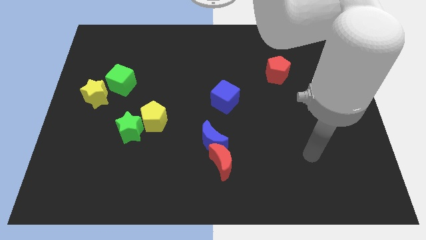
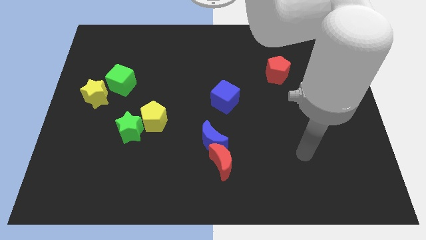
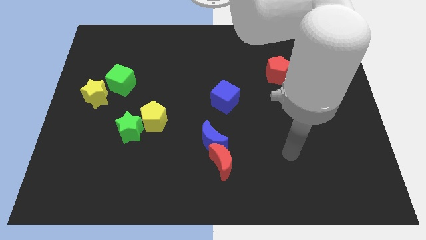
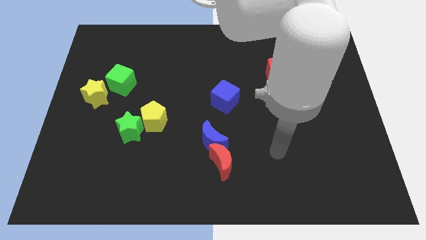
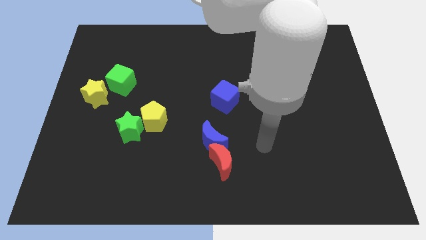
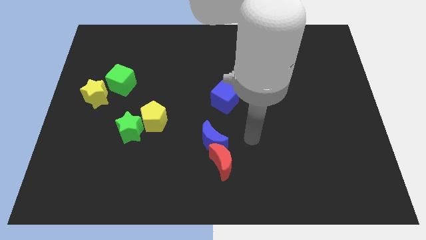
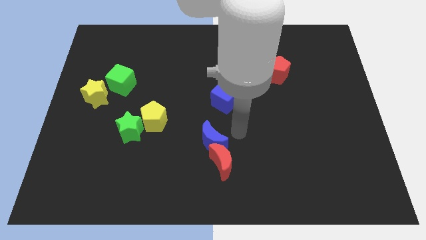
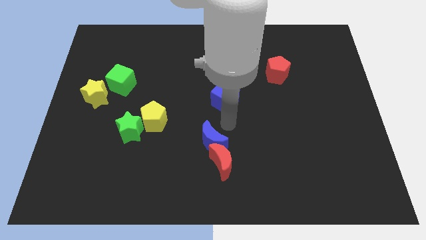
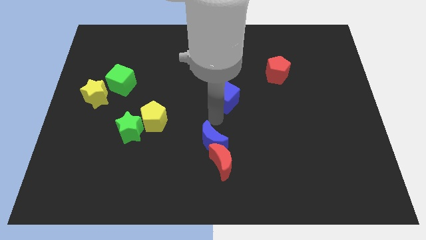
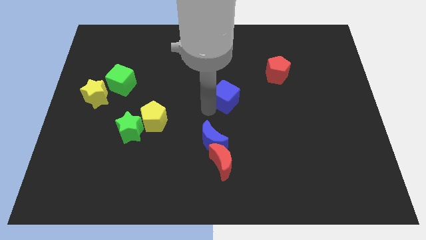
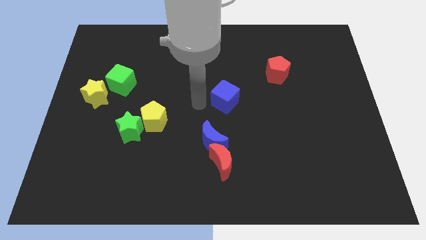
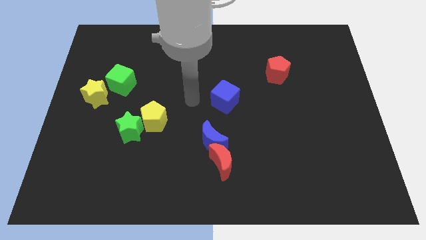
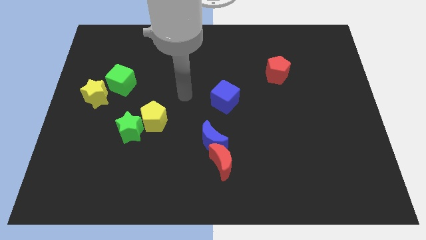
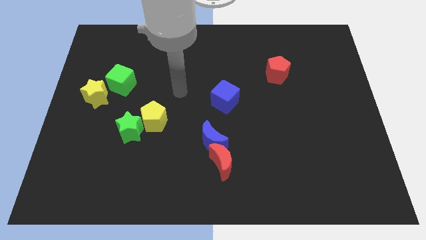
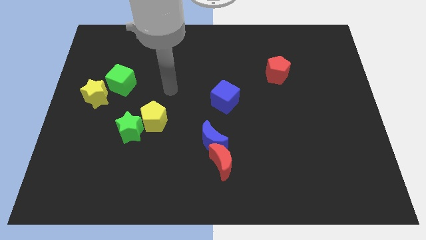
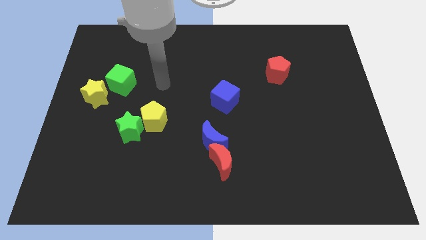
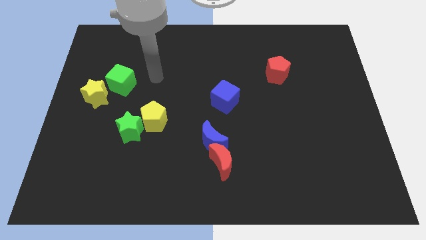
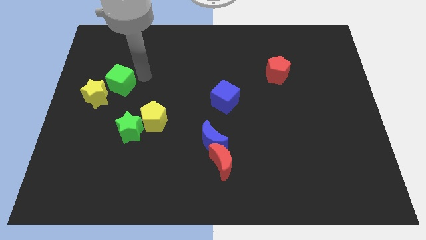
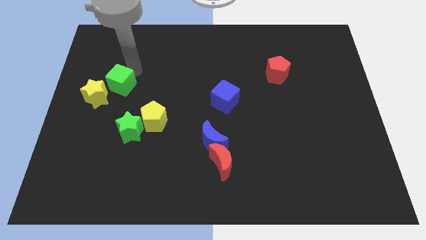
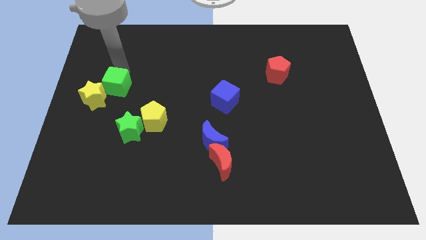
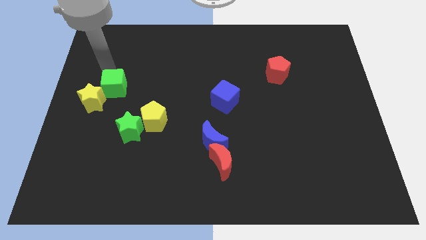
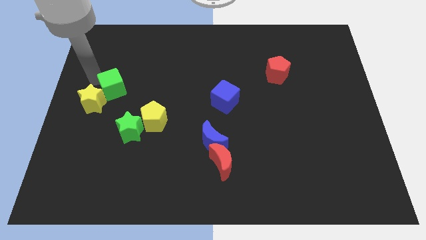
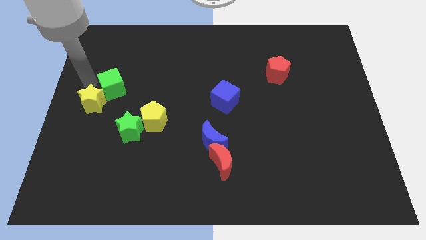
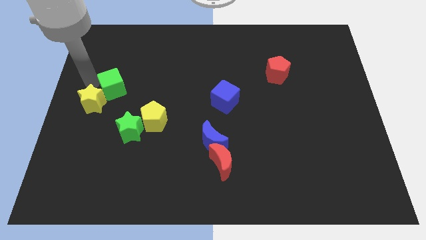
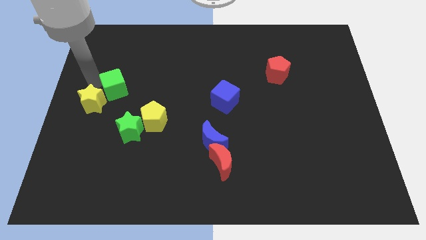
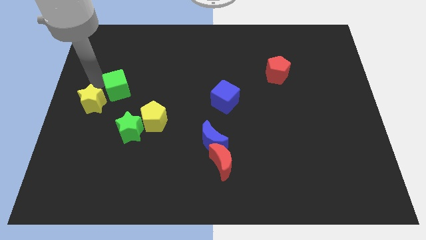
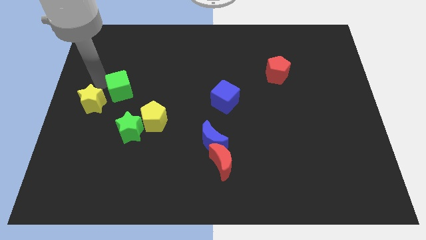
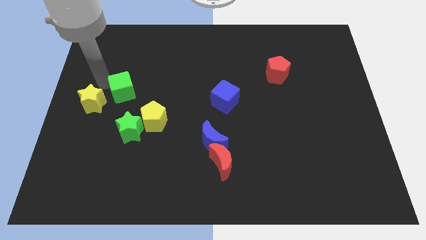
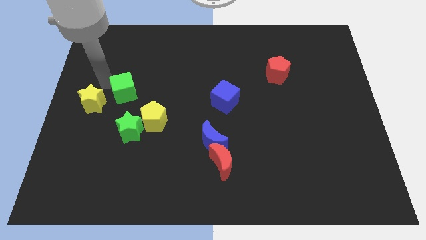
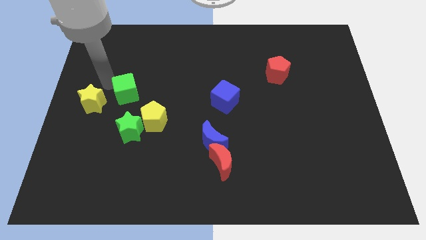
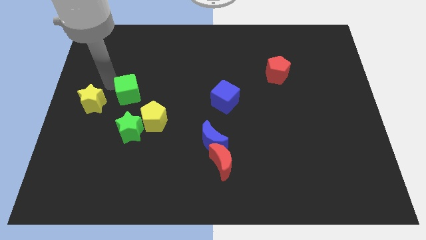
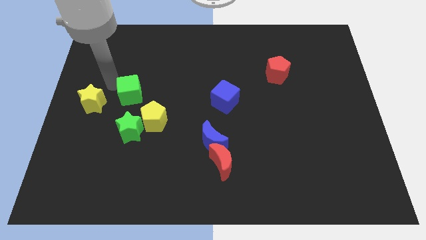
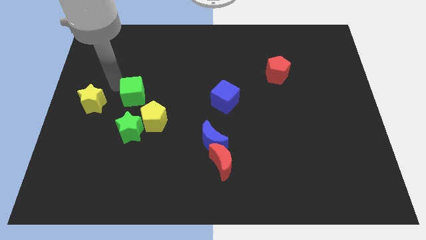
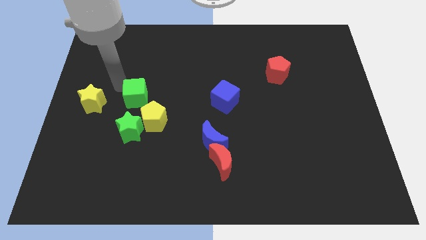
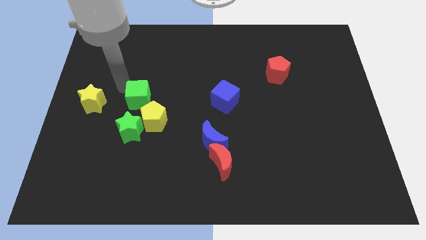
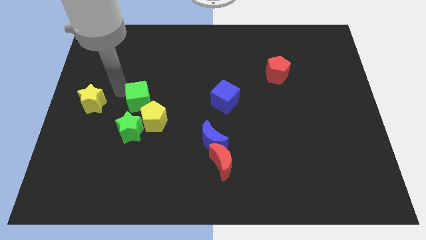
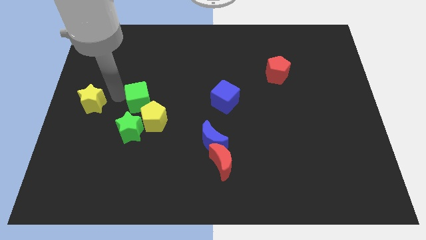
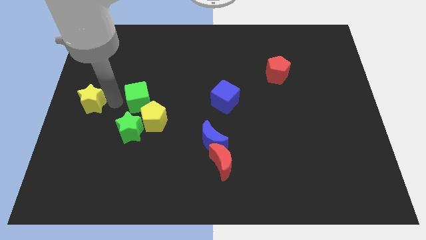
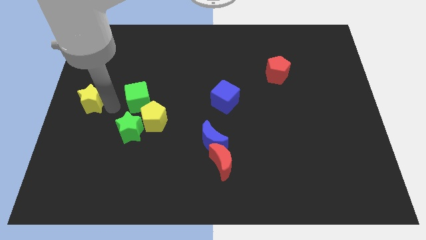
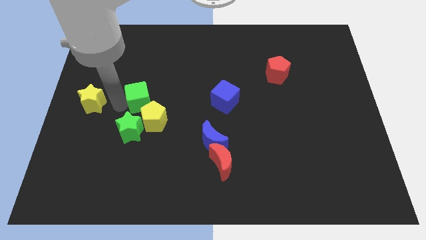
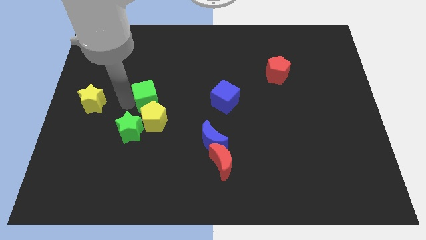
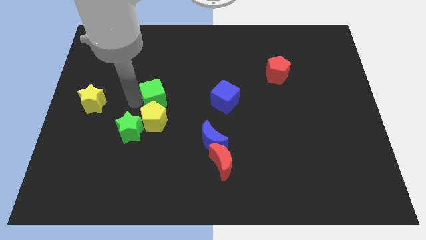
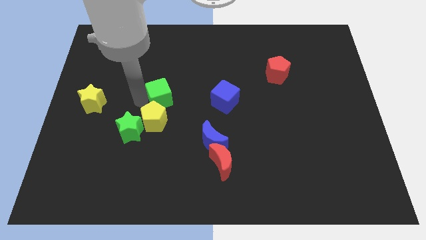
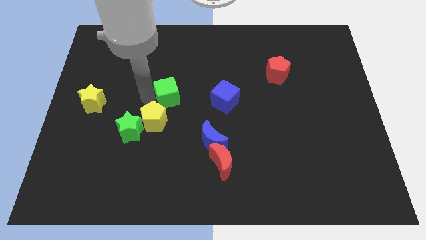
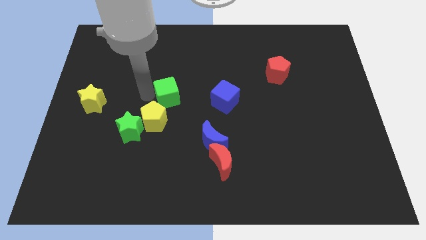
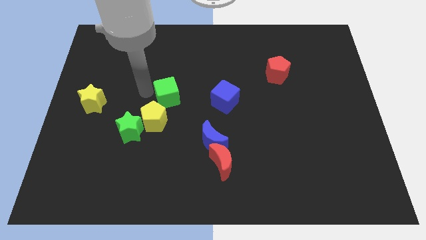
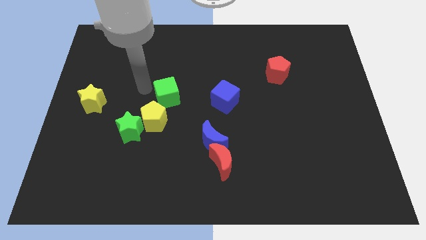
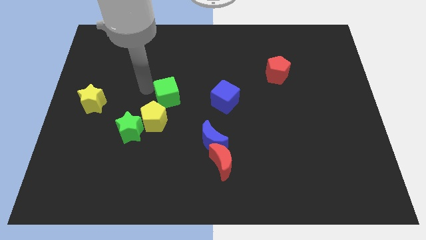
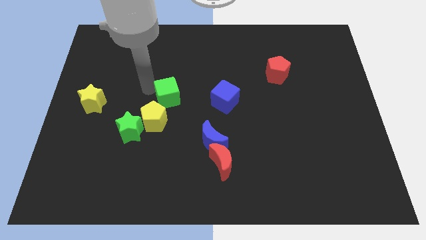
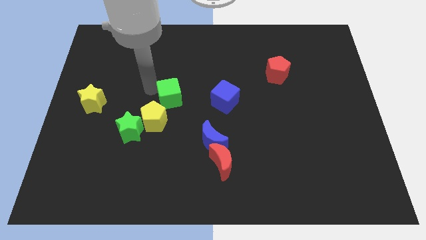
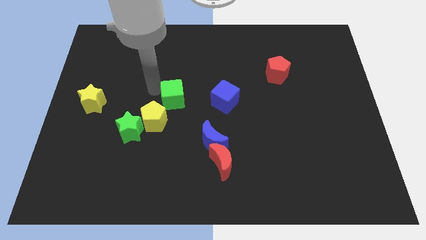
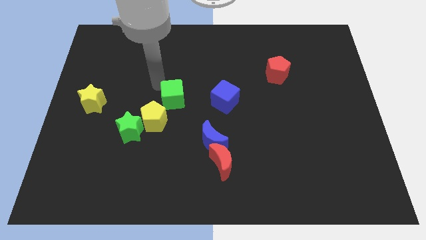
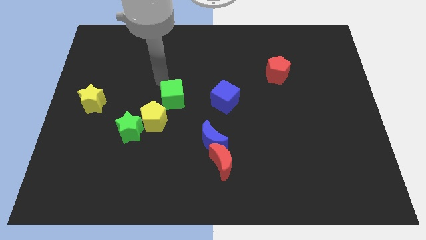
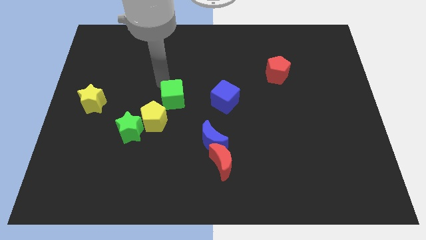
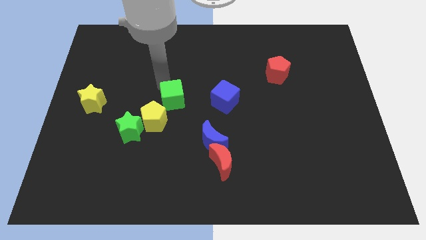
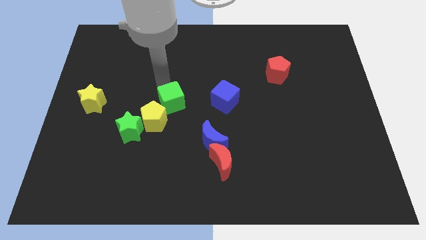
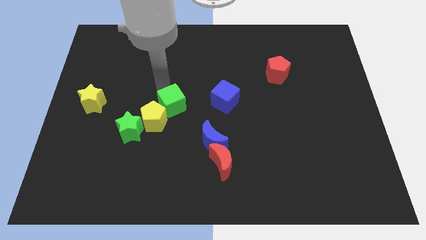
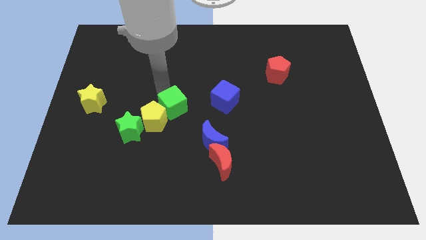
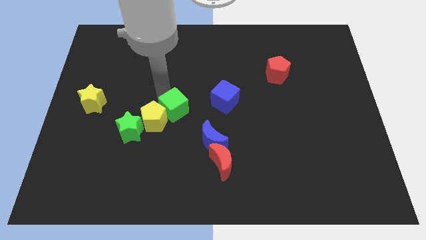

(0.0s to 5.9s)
move the green cube to the top left side of the blue moon

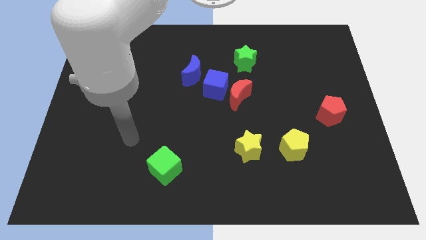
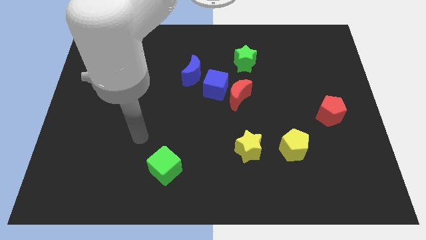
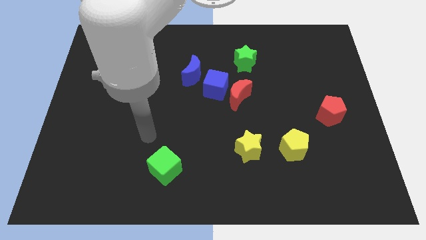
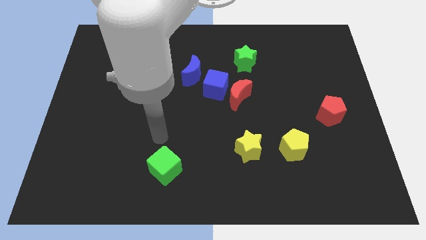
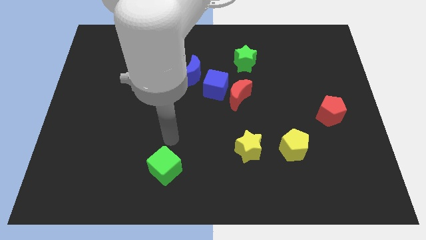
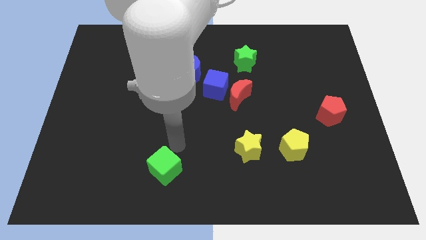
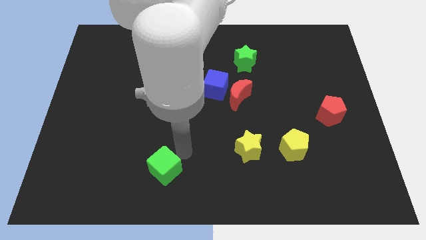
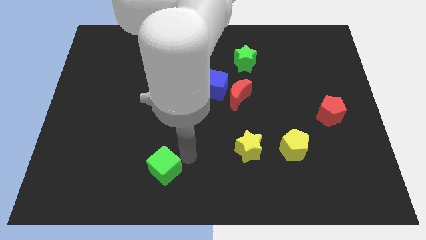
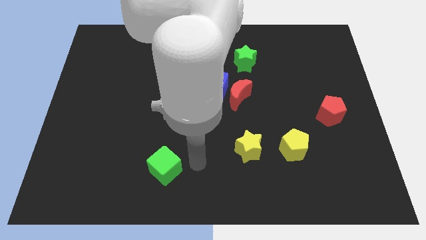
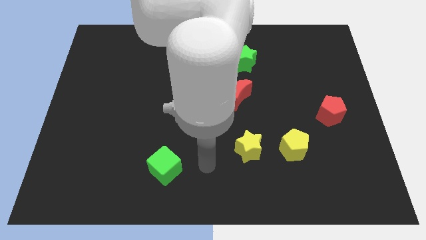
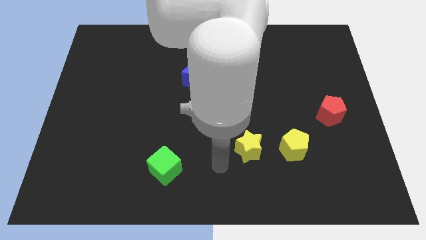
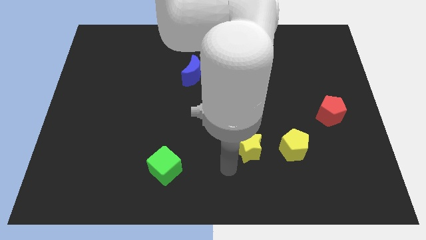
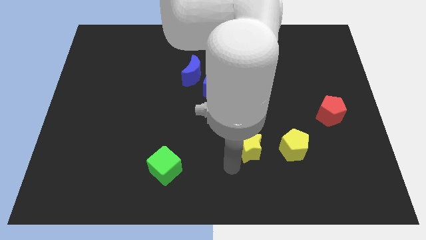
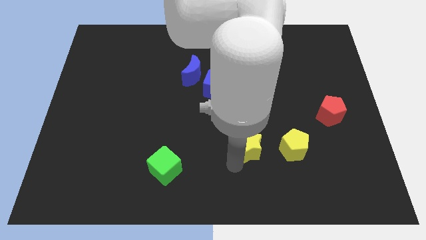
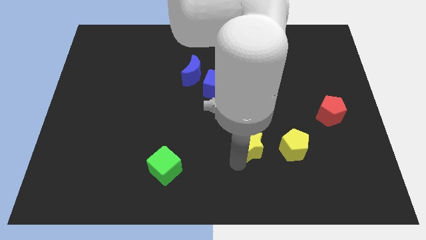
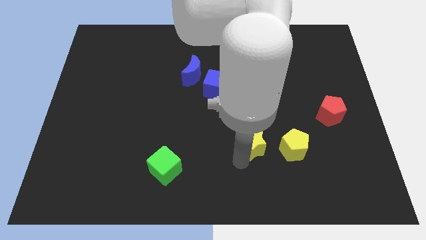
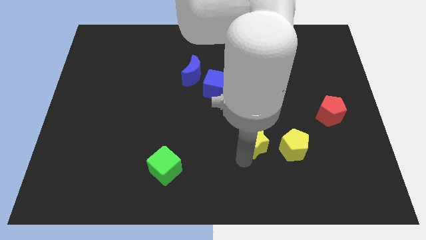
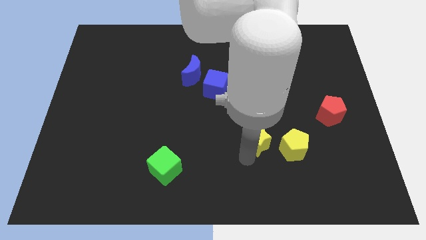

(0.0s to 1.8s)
move the yellow star diagonally up and to the left of the yellow pentagon
